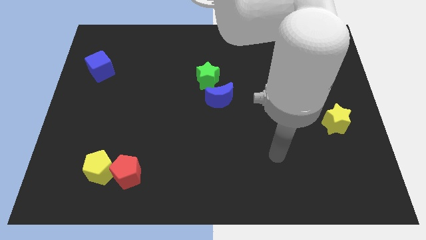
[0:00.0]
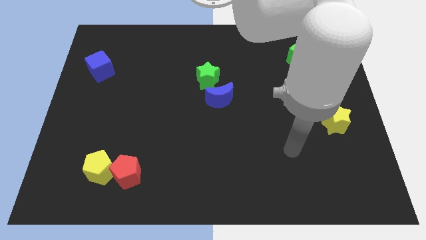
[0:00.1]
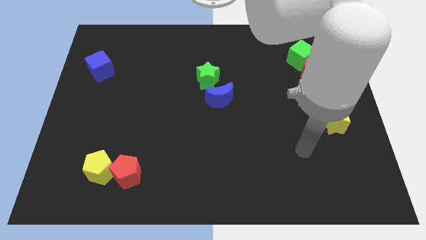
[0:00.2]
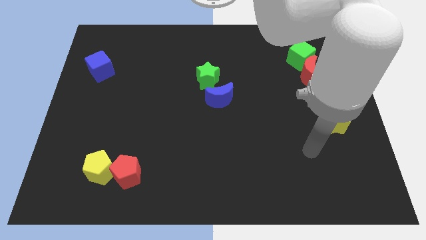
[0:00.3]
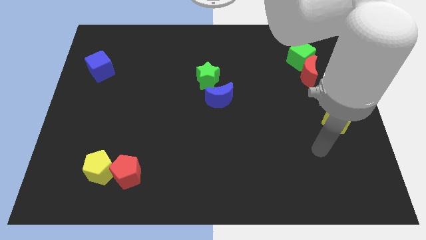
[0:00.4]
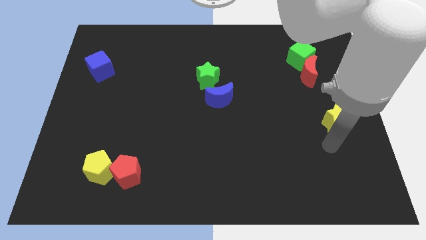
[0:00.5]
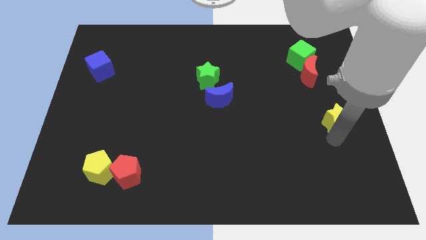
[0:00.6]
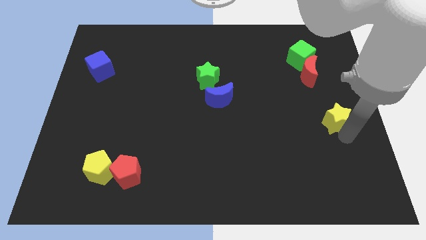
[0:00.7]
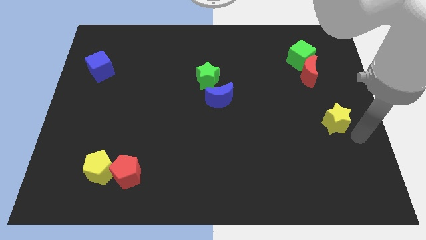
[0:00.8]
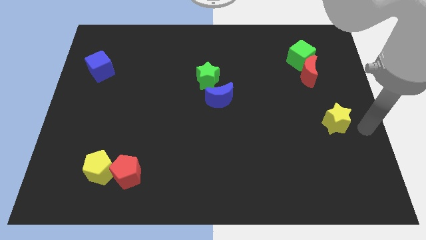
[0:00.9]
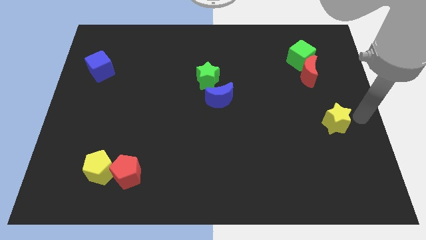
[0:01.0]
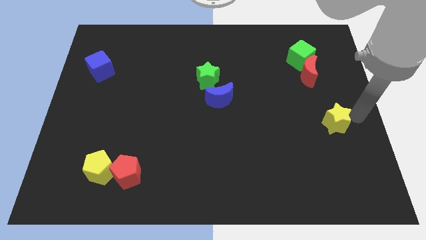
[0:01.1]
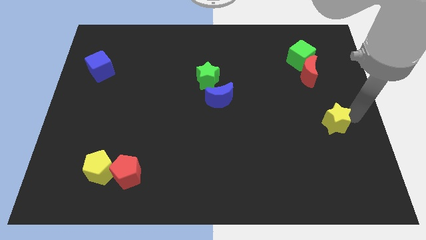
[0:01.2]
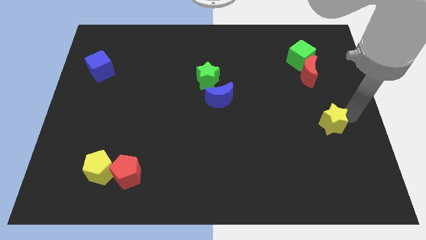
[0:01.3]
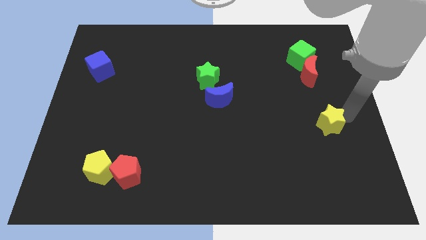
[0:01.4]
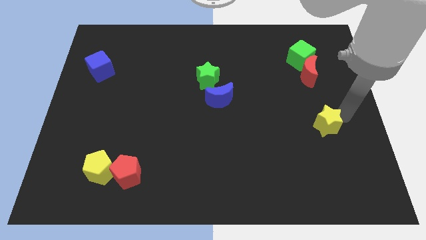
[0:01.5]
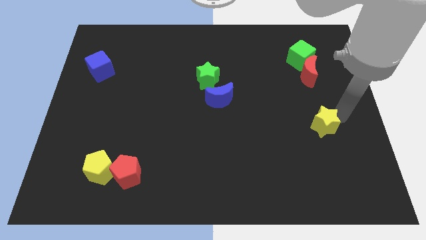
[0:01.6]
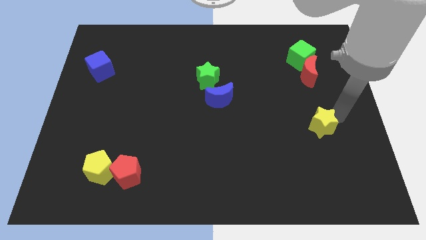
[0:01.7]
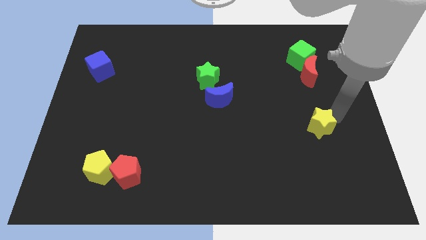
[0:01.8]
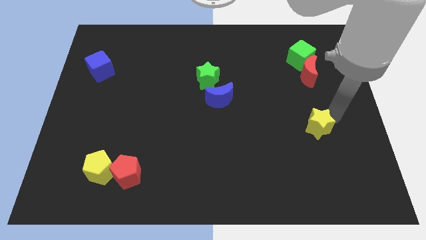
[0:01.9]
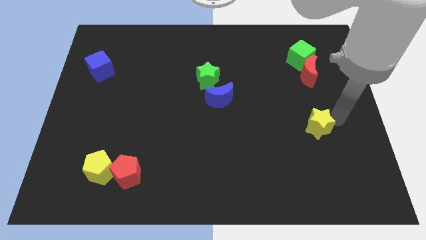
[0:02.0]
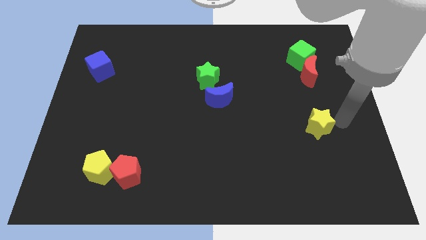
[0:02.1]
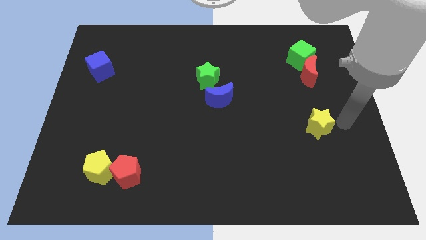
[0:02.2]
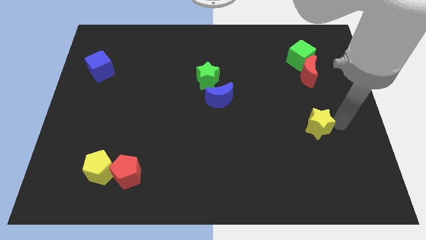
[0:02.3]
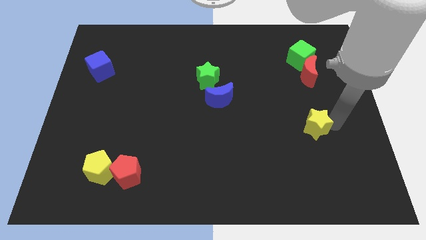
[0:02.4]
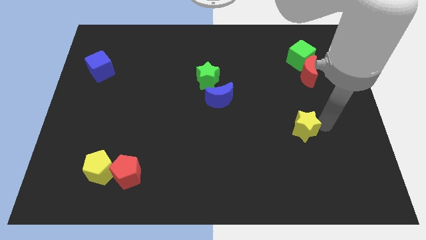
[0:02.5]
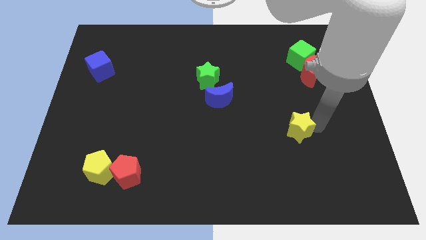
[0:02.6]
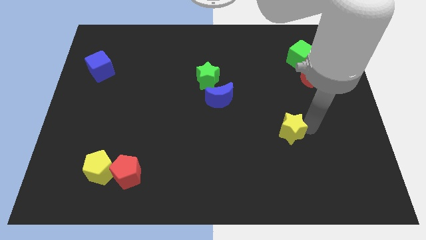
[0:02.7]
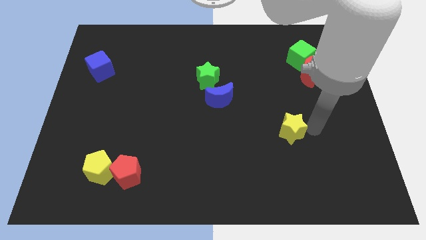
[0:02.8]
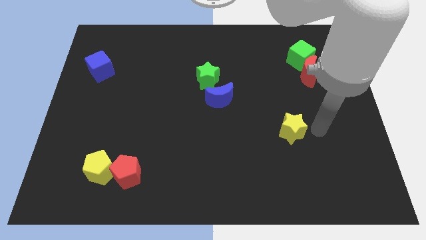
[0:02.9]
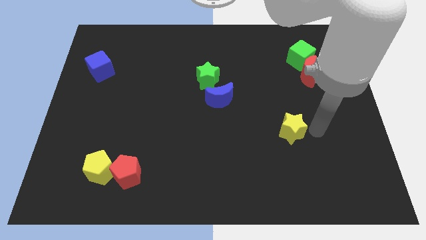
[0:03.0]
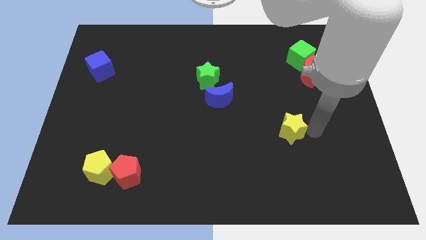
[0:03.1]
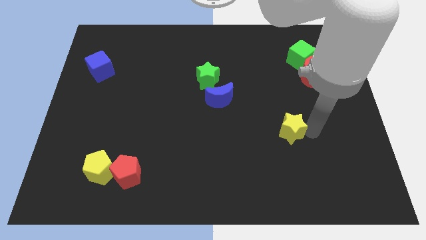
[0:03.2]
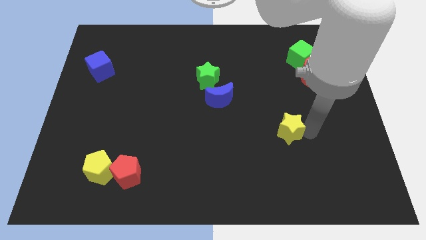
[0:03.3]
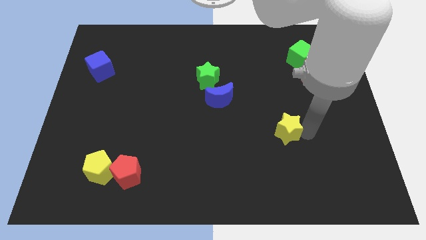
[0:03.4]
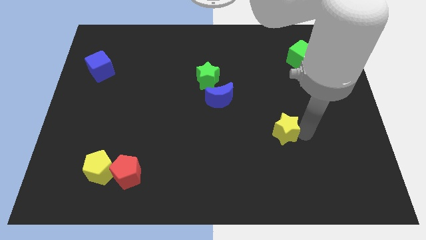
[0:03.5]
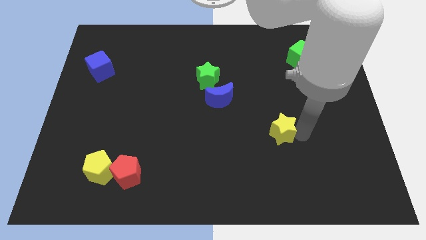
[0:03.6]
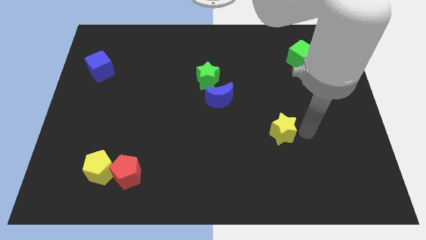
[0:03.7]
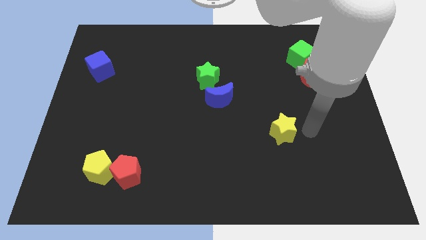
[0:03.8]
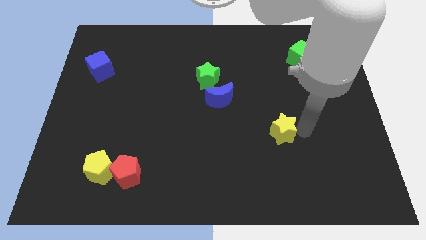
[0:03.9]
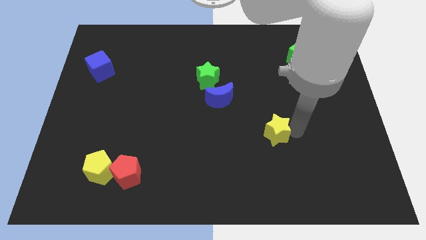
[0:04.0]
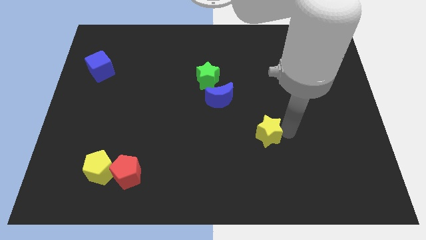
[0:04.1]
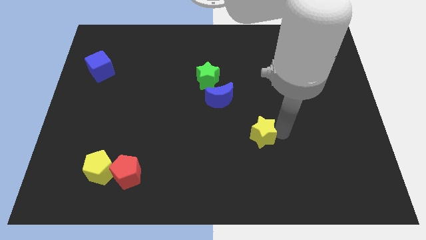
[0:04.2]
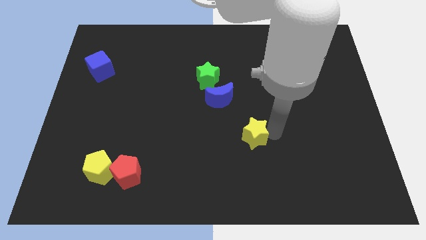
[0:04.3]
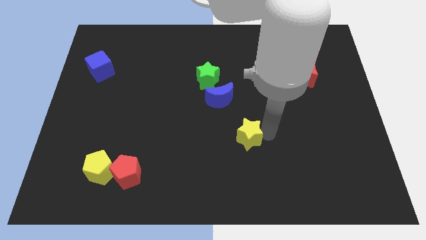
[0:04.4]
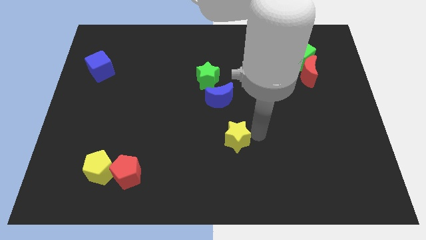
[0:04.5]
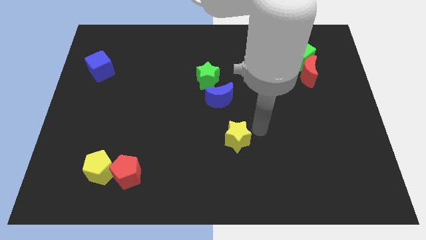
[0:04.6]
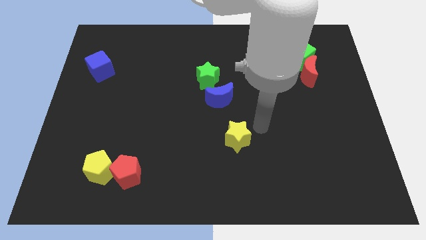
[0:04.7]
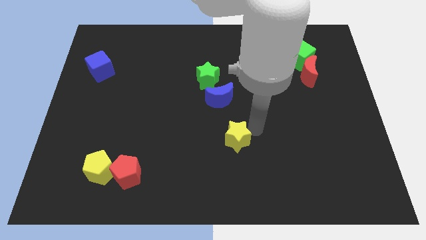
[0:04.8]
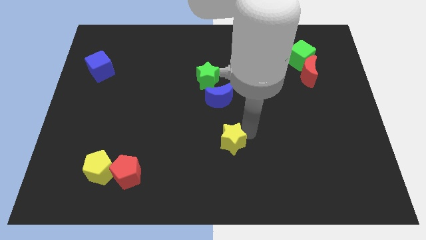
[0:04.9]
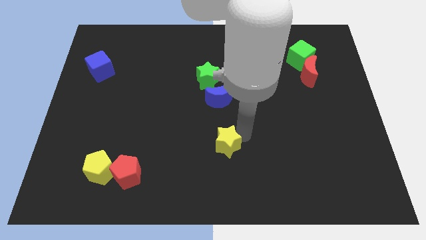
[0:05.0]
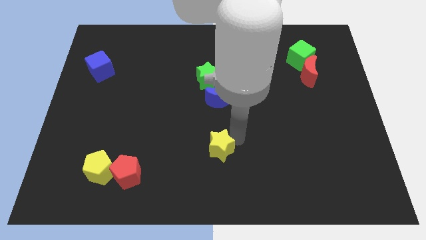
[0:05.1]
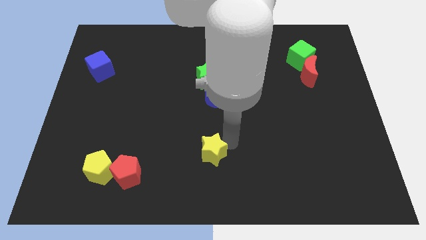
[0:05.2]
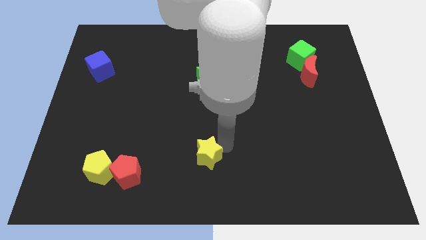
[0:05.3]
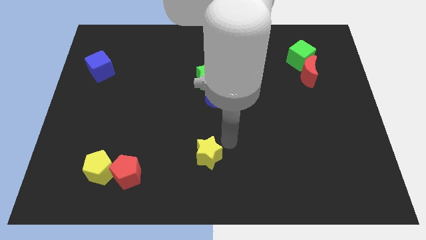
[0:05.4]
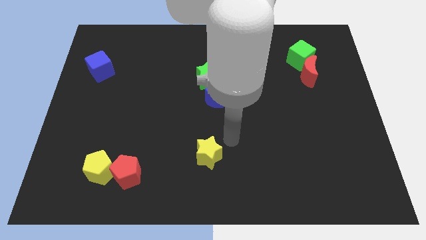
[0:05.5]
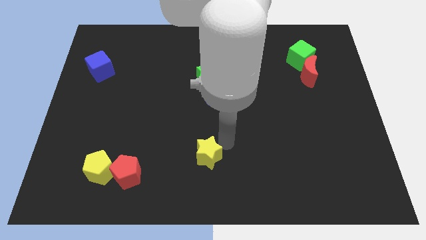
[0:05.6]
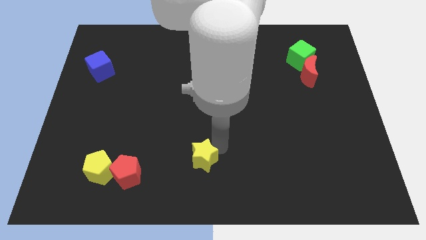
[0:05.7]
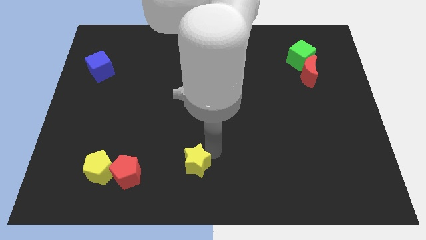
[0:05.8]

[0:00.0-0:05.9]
push the yellow star to the right of the red pentagon

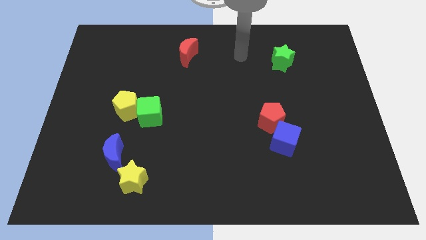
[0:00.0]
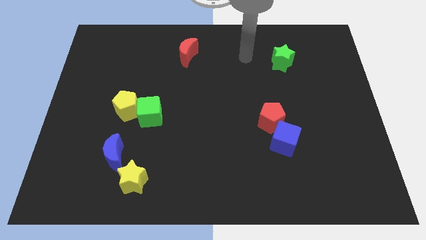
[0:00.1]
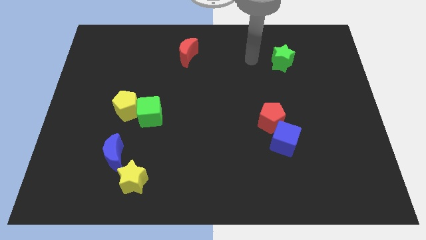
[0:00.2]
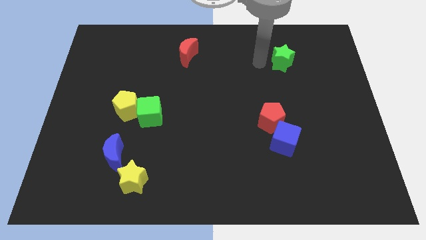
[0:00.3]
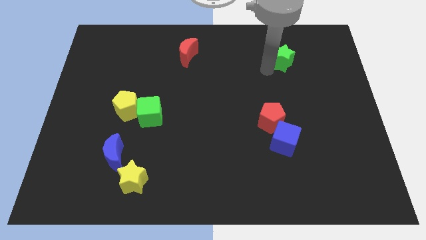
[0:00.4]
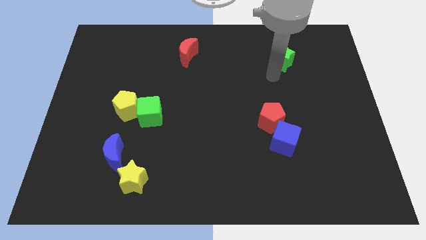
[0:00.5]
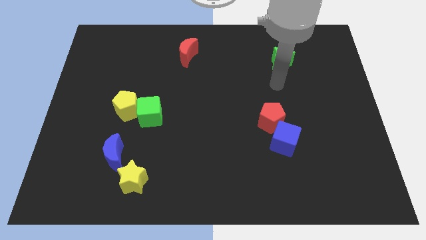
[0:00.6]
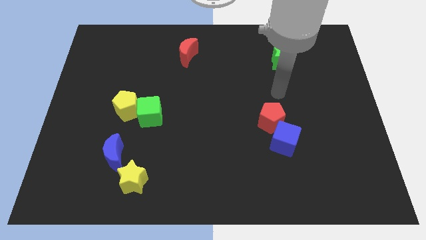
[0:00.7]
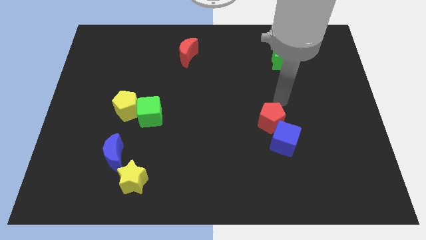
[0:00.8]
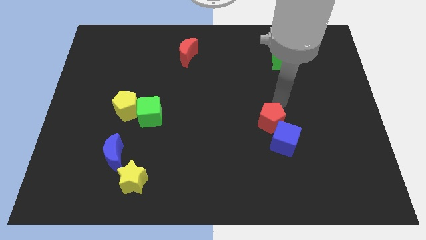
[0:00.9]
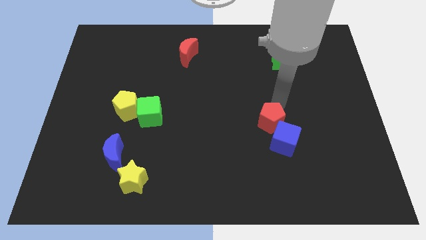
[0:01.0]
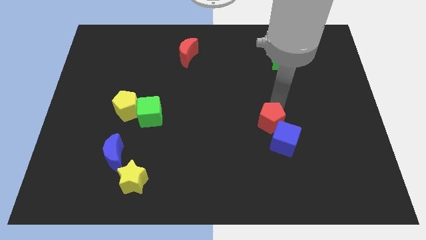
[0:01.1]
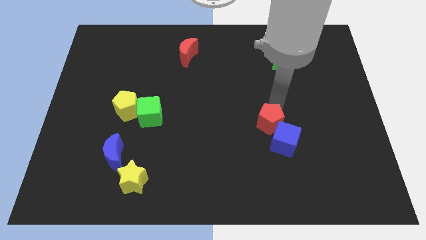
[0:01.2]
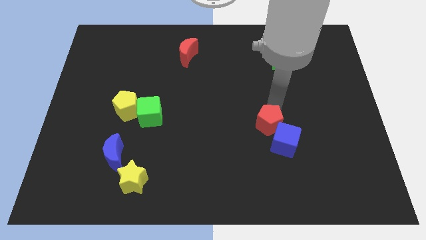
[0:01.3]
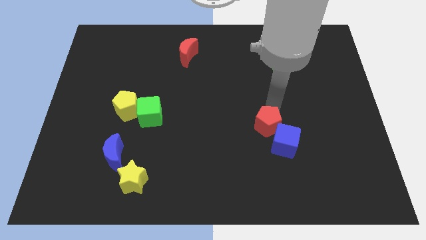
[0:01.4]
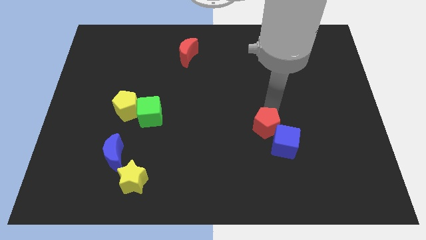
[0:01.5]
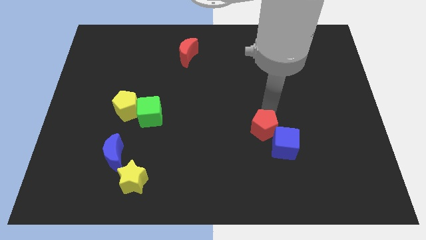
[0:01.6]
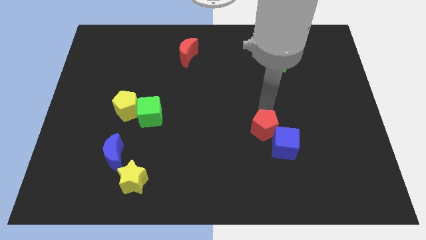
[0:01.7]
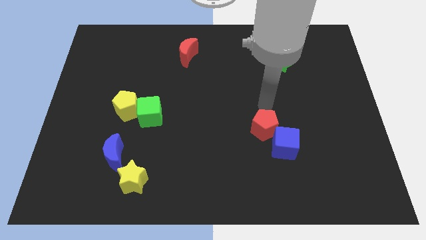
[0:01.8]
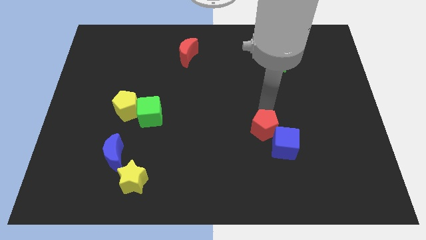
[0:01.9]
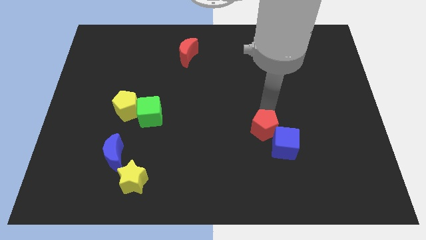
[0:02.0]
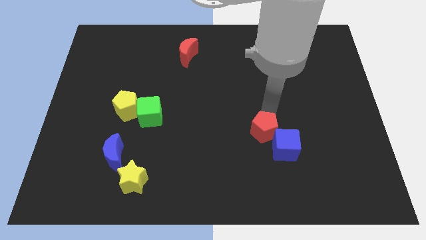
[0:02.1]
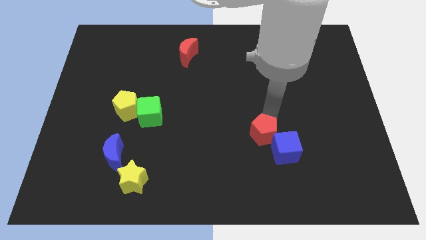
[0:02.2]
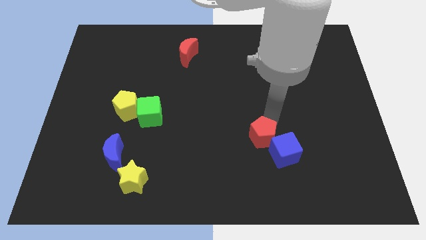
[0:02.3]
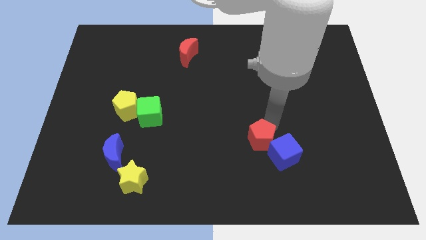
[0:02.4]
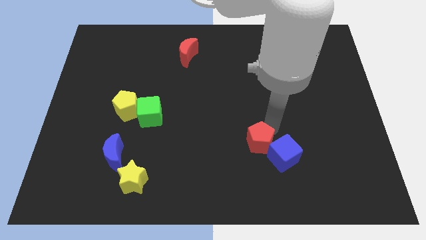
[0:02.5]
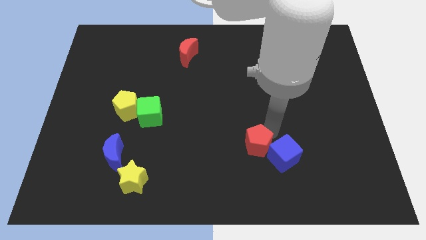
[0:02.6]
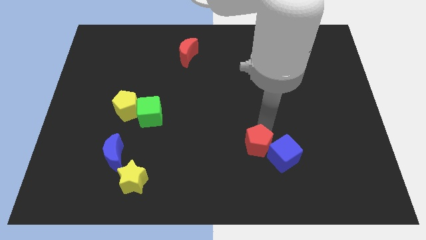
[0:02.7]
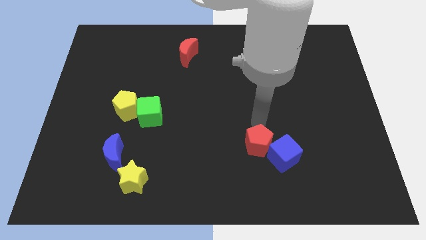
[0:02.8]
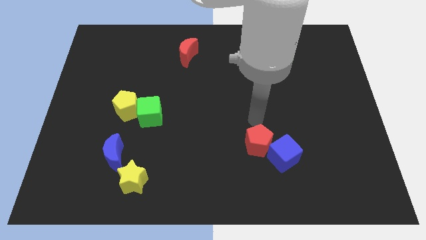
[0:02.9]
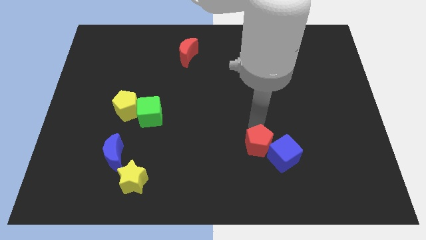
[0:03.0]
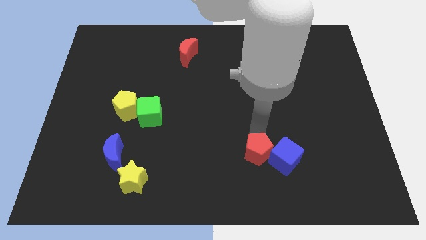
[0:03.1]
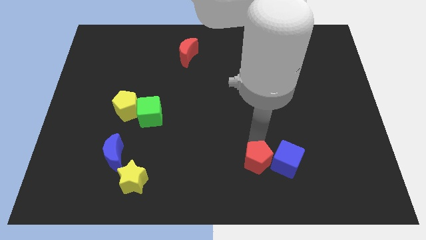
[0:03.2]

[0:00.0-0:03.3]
put the red pentagon diagonally down and to the left of the blue cube
